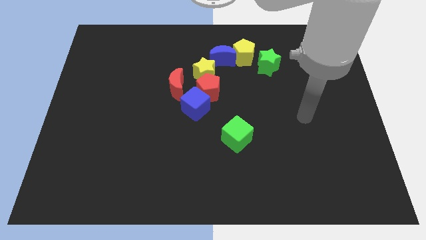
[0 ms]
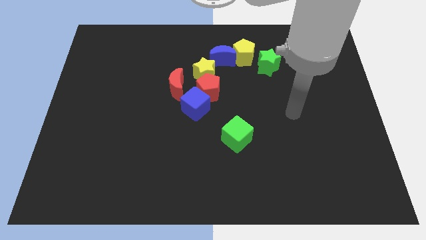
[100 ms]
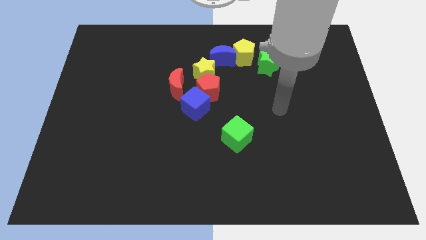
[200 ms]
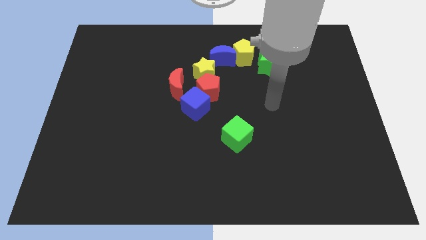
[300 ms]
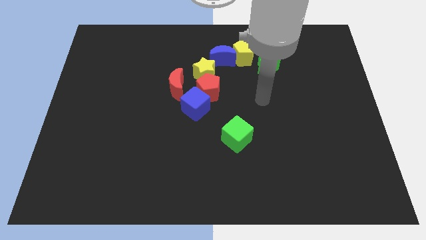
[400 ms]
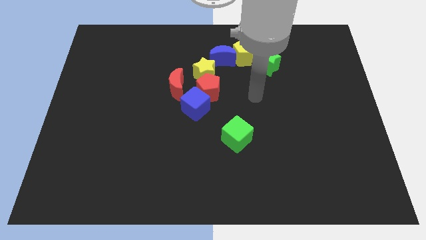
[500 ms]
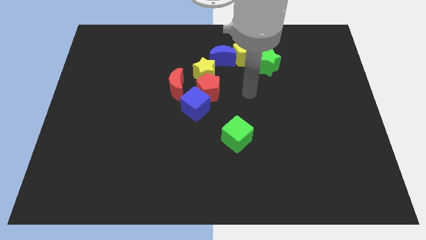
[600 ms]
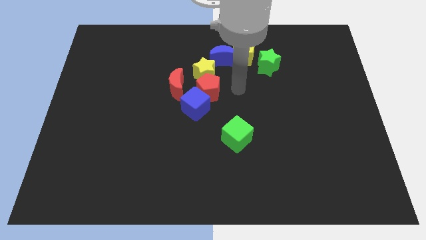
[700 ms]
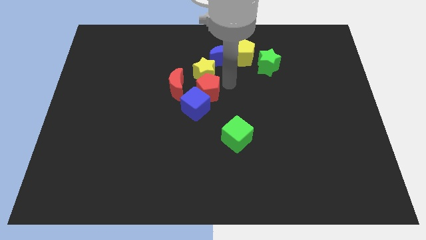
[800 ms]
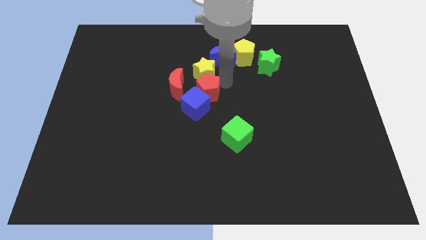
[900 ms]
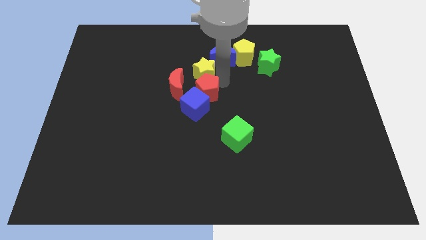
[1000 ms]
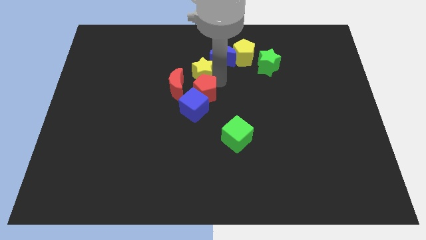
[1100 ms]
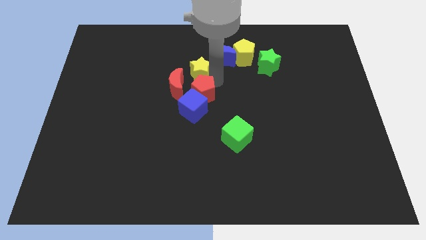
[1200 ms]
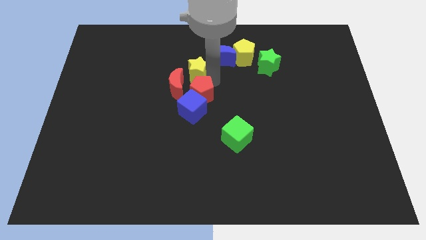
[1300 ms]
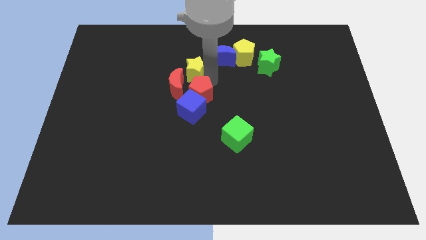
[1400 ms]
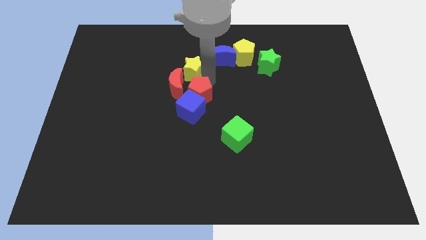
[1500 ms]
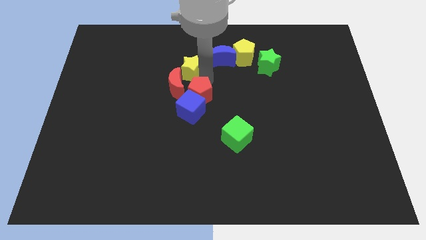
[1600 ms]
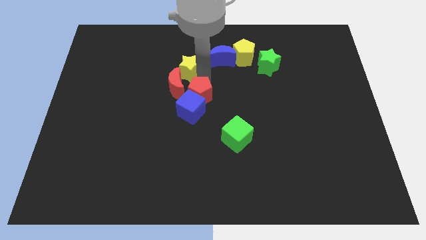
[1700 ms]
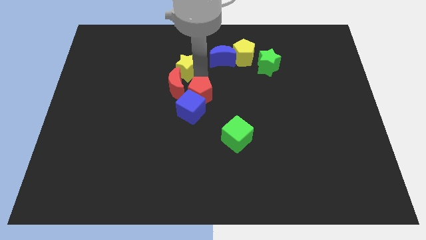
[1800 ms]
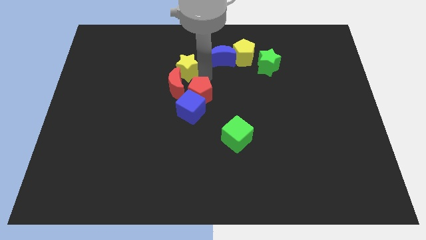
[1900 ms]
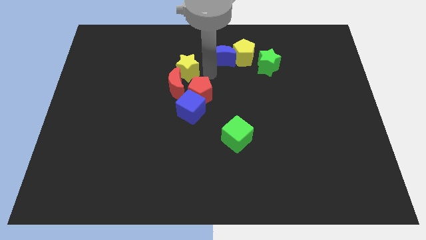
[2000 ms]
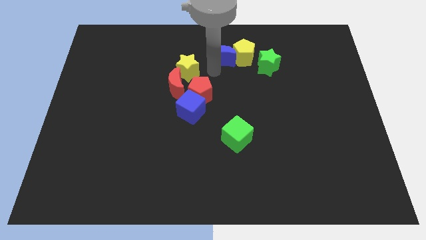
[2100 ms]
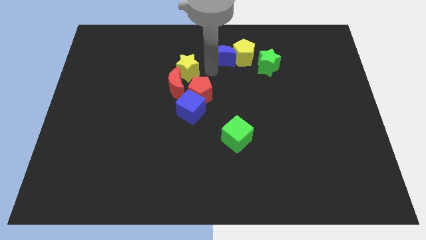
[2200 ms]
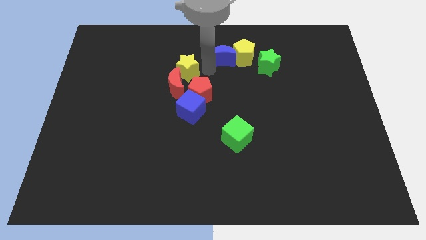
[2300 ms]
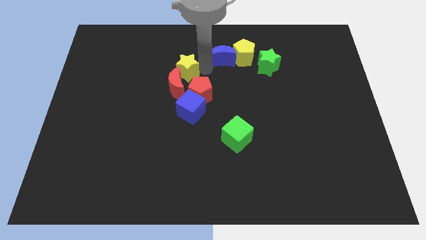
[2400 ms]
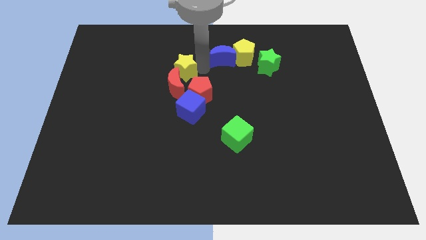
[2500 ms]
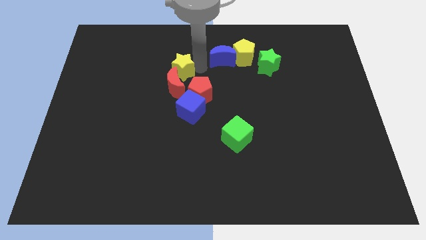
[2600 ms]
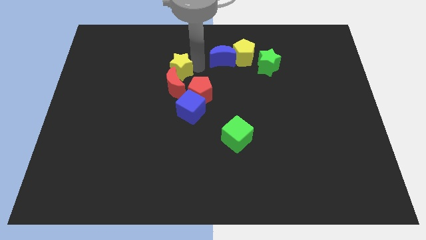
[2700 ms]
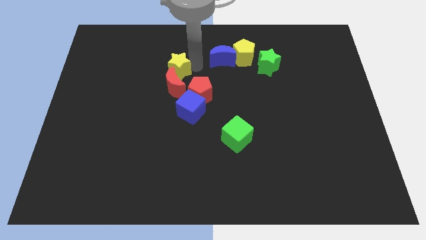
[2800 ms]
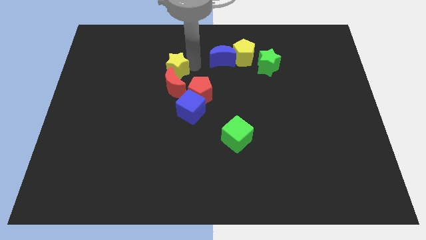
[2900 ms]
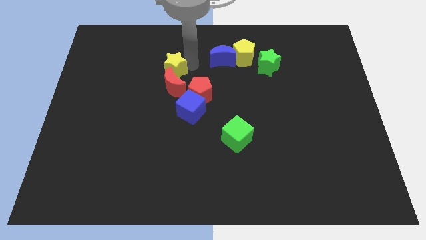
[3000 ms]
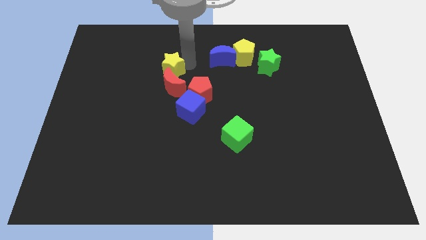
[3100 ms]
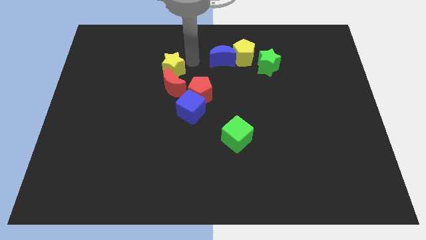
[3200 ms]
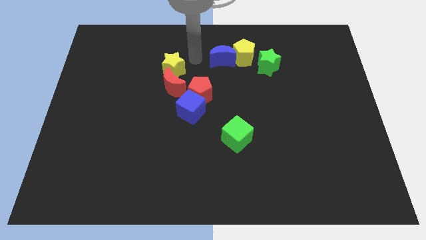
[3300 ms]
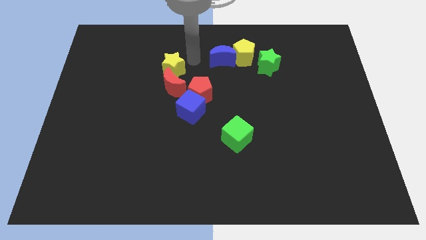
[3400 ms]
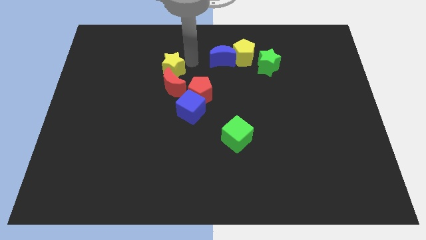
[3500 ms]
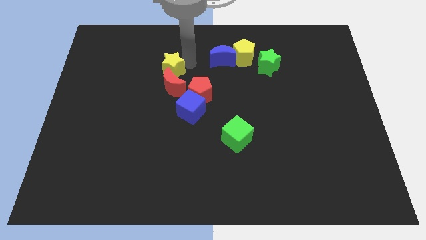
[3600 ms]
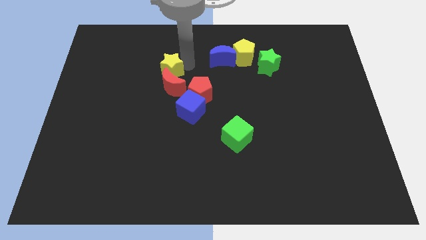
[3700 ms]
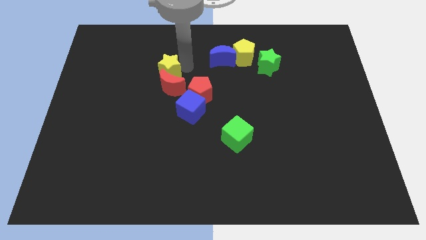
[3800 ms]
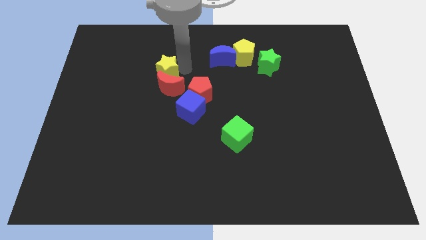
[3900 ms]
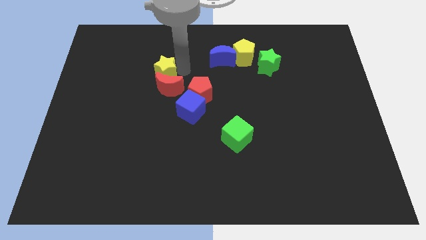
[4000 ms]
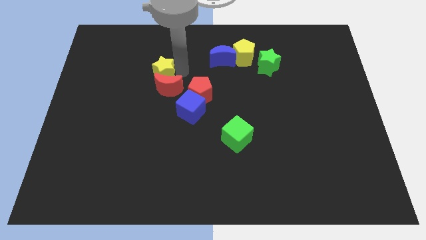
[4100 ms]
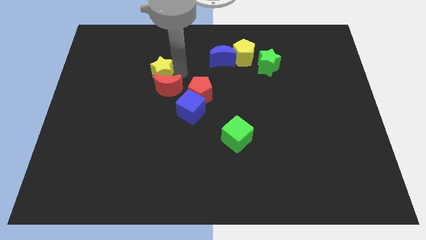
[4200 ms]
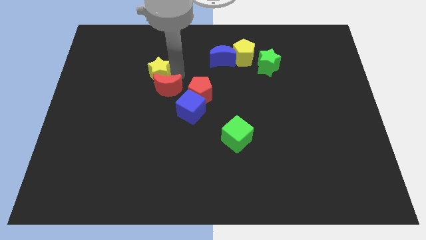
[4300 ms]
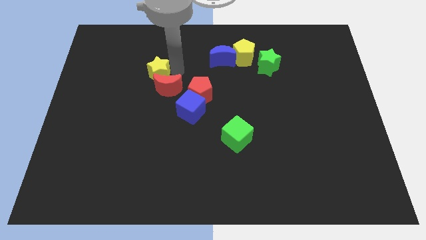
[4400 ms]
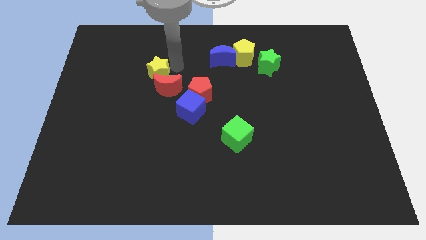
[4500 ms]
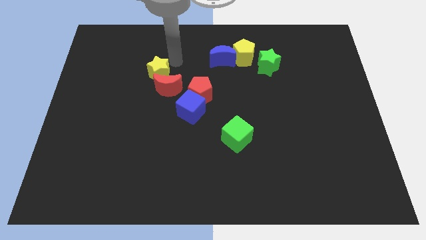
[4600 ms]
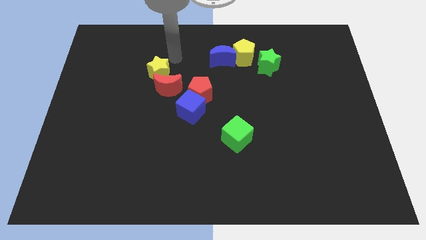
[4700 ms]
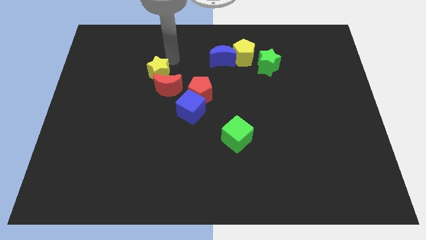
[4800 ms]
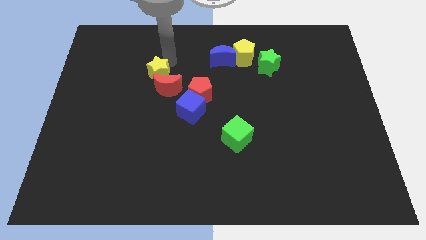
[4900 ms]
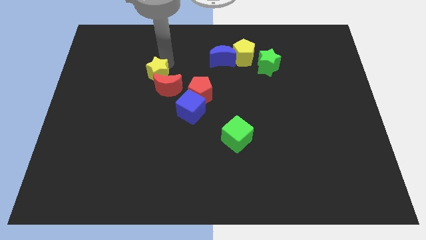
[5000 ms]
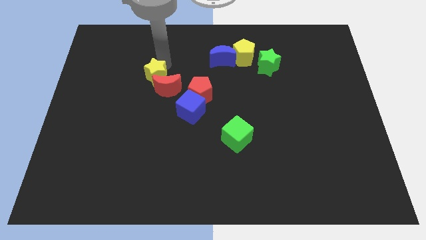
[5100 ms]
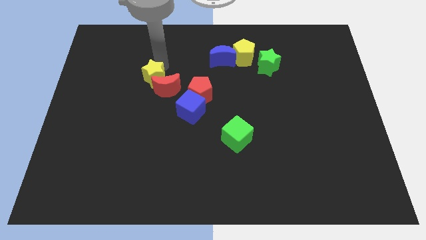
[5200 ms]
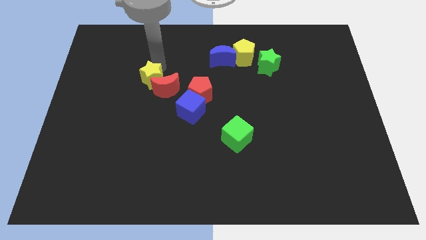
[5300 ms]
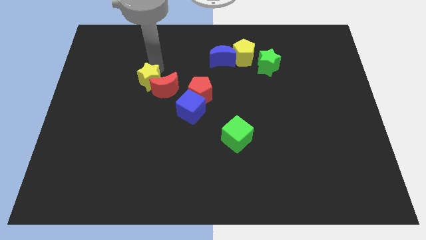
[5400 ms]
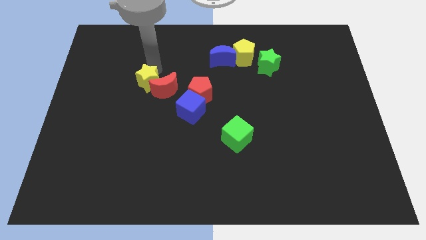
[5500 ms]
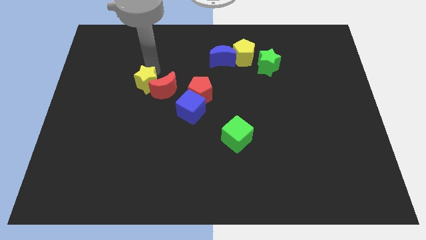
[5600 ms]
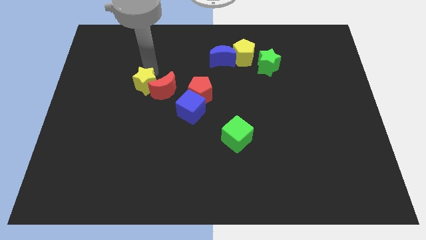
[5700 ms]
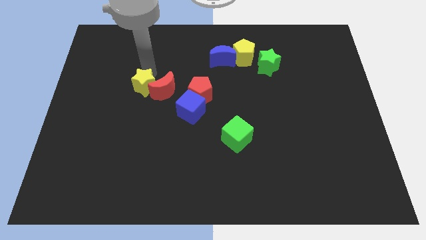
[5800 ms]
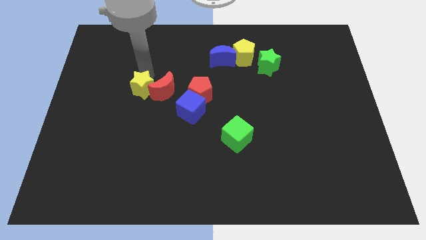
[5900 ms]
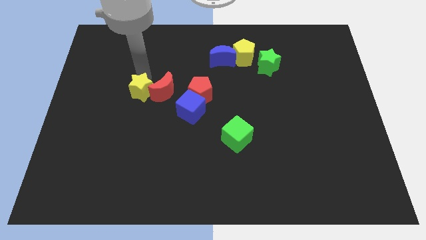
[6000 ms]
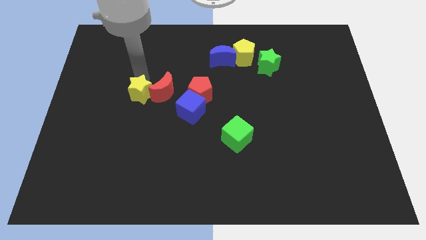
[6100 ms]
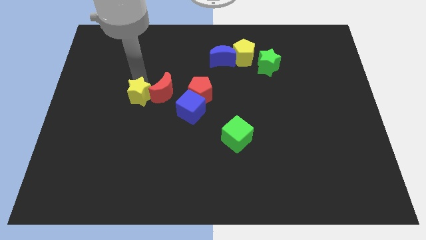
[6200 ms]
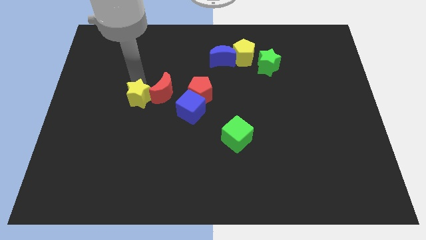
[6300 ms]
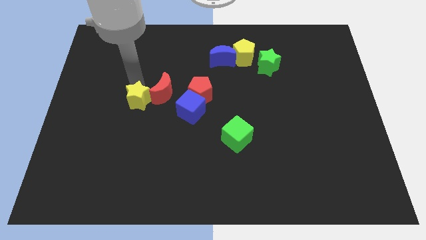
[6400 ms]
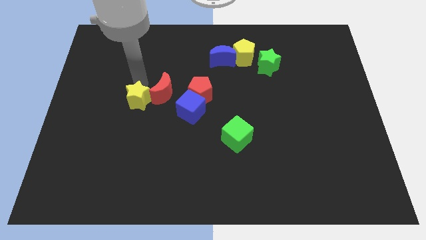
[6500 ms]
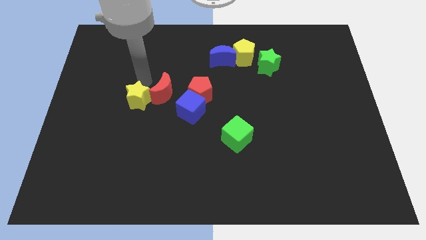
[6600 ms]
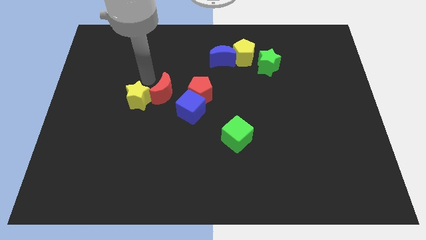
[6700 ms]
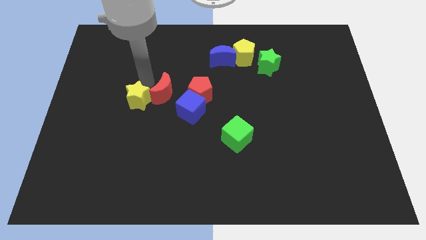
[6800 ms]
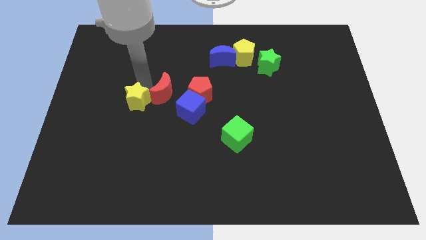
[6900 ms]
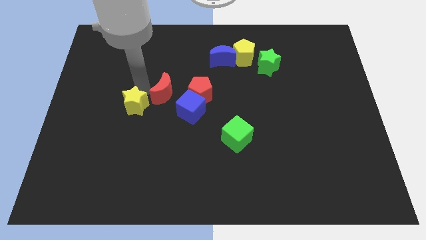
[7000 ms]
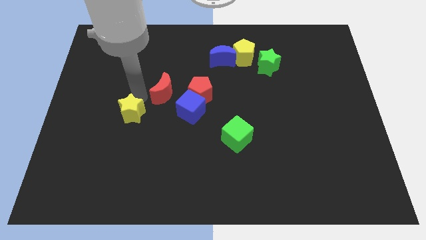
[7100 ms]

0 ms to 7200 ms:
move the yellow star down and then left

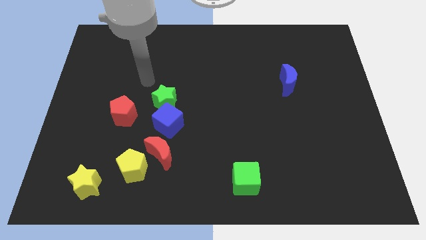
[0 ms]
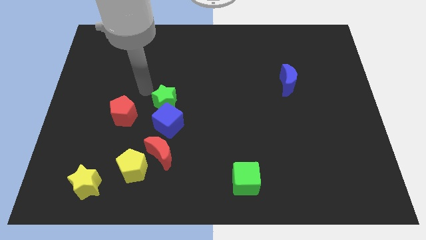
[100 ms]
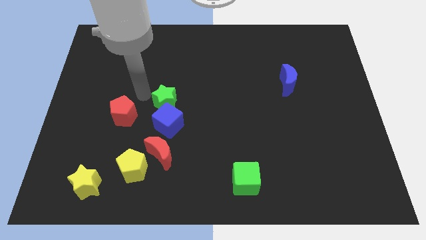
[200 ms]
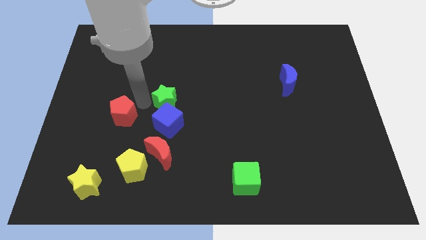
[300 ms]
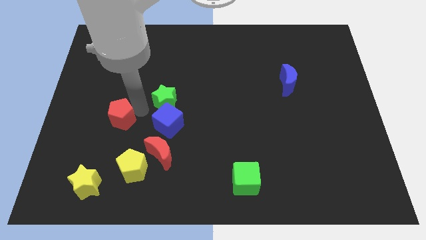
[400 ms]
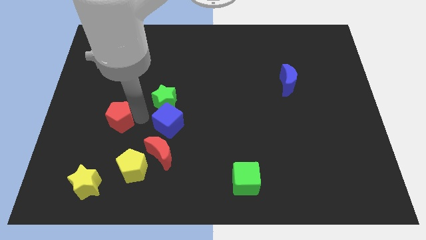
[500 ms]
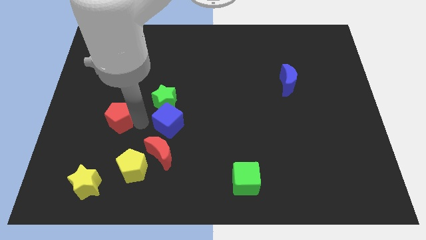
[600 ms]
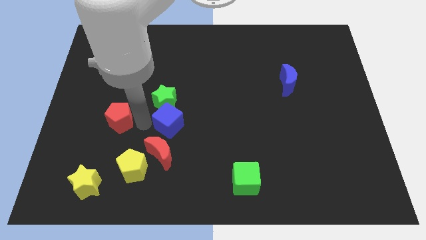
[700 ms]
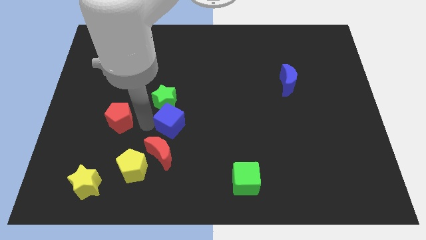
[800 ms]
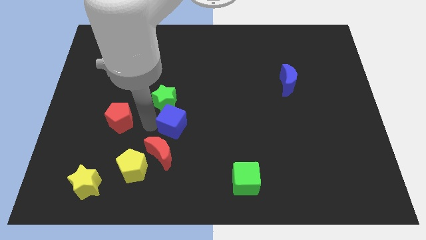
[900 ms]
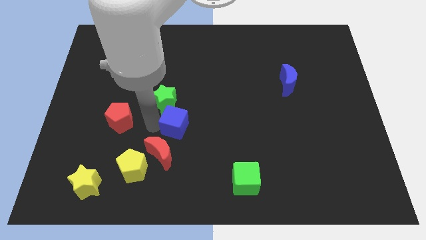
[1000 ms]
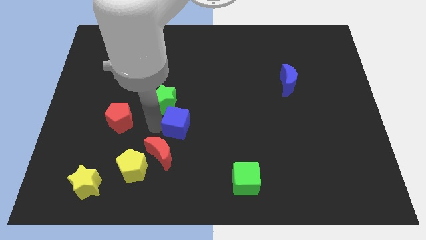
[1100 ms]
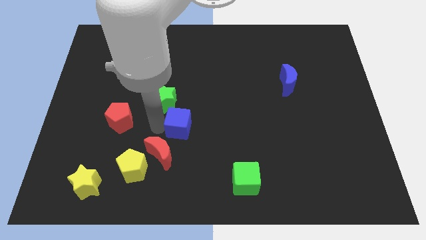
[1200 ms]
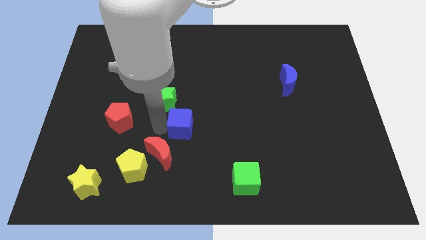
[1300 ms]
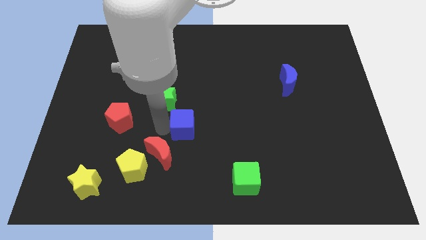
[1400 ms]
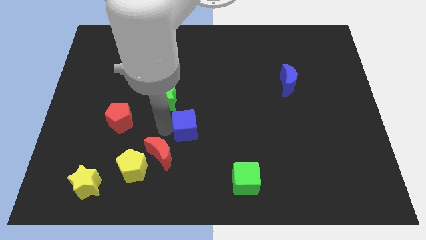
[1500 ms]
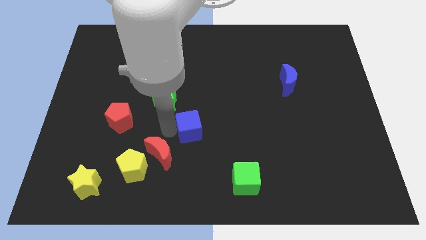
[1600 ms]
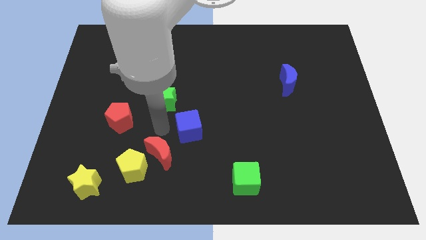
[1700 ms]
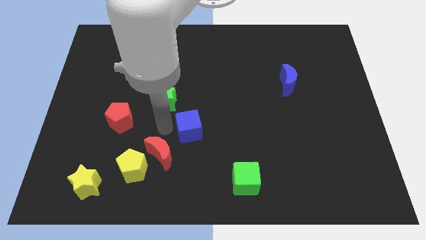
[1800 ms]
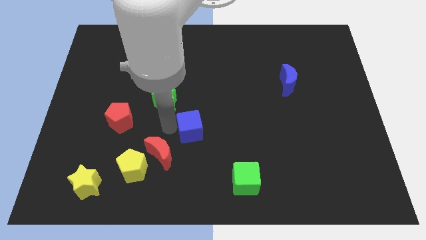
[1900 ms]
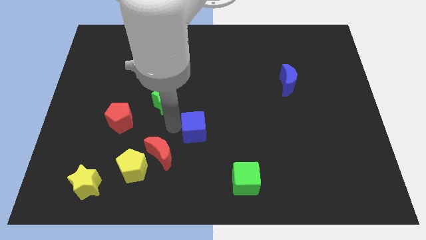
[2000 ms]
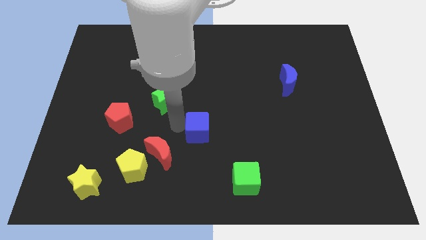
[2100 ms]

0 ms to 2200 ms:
slide the blue cube to the right slightly
